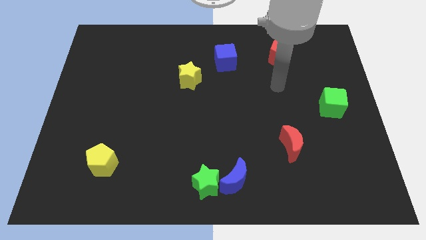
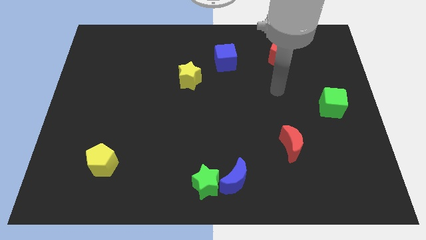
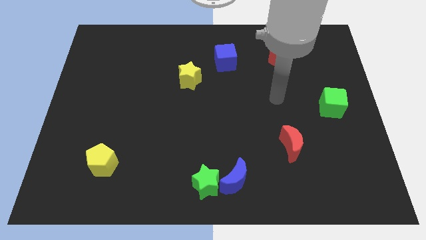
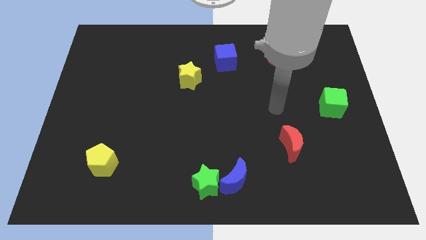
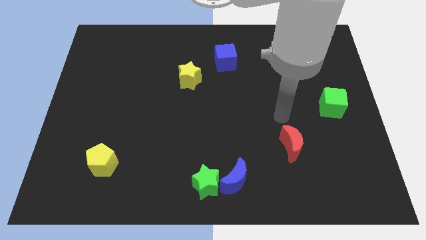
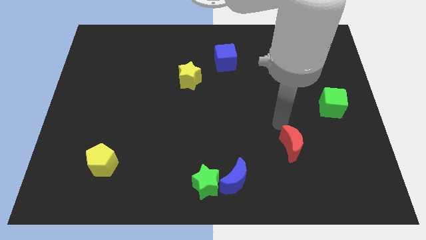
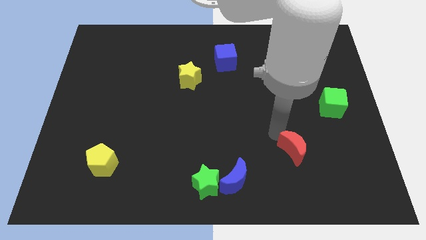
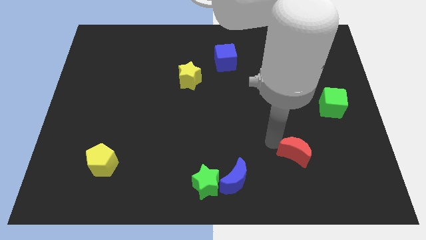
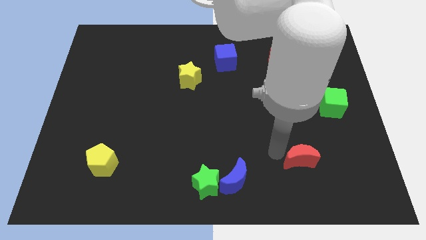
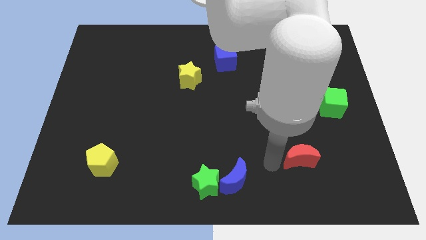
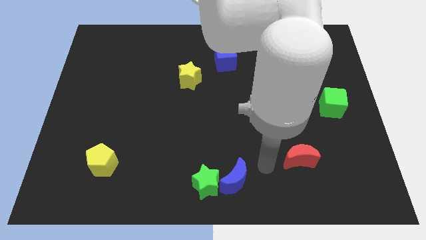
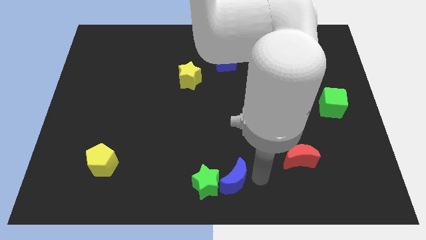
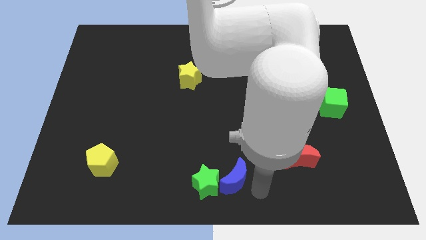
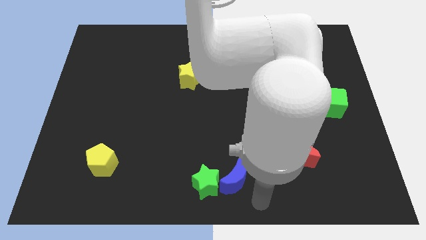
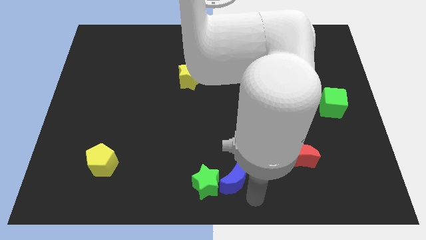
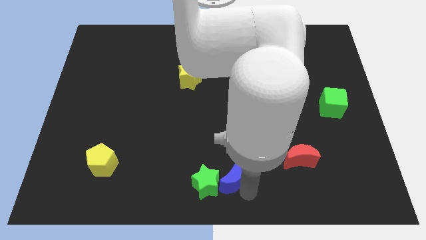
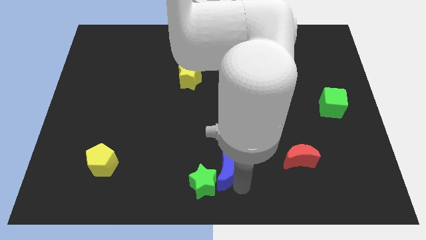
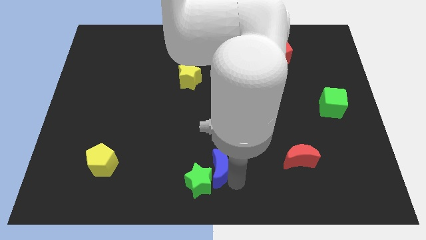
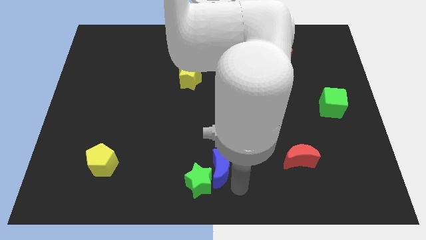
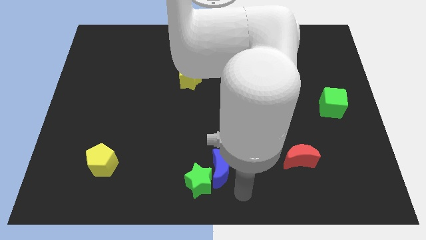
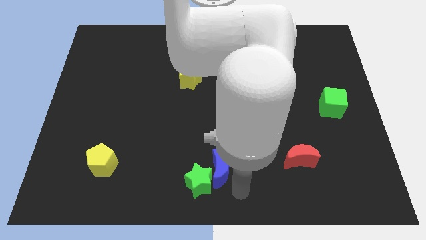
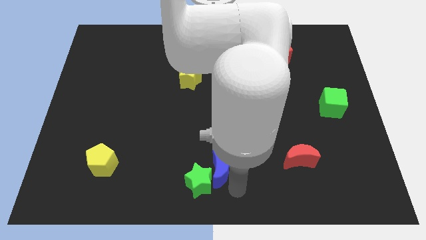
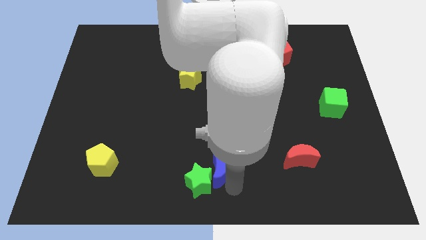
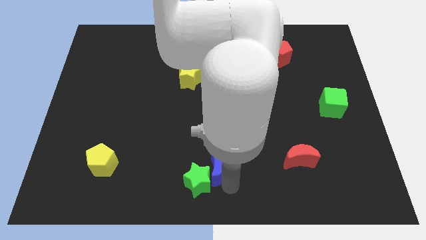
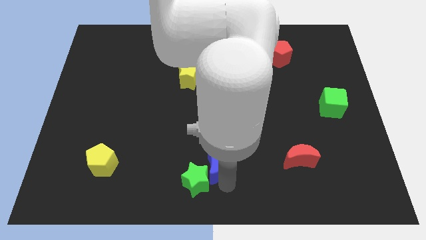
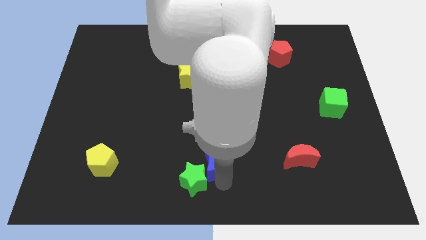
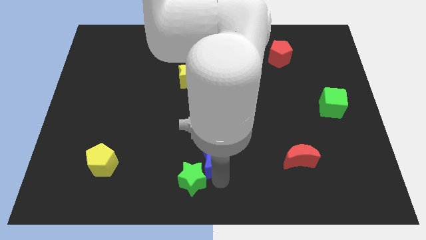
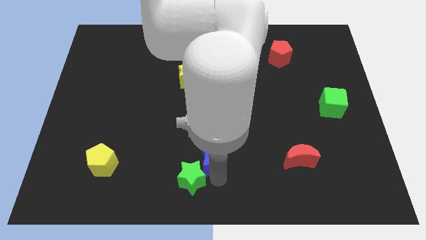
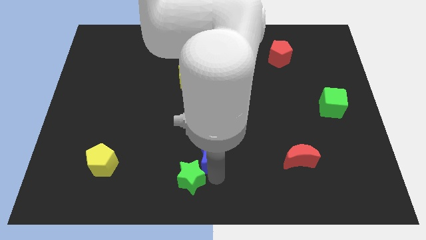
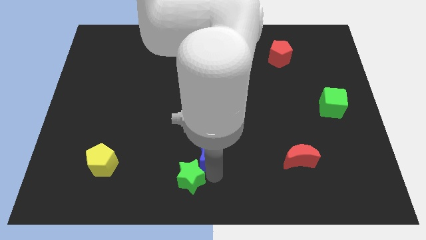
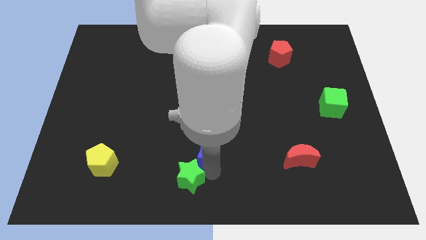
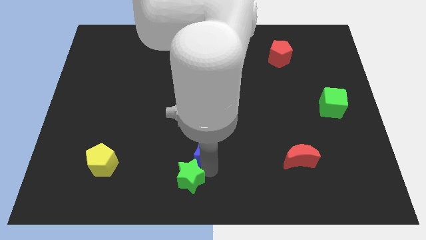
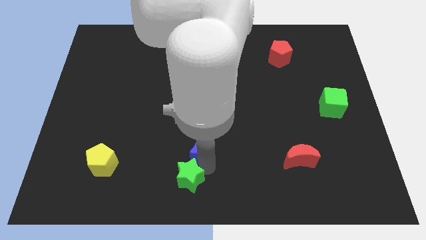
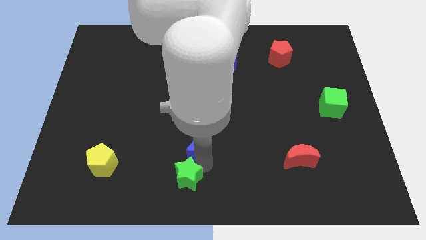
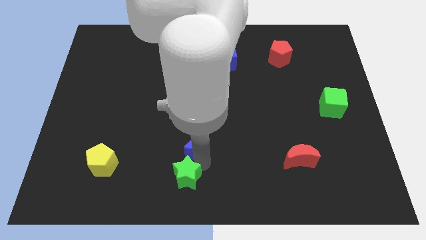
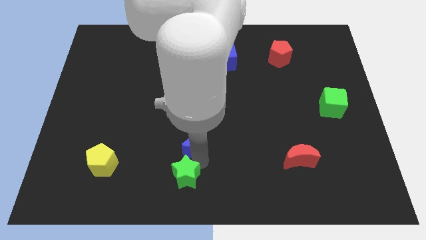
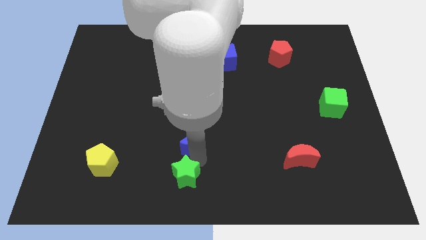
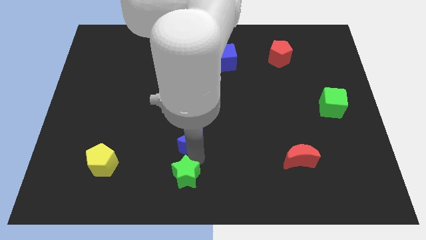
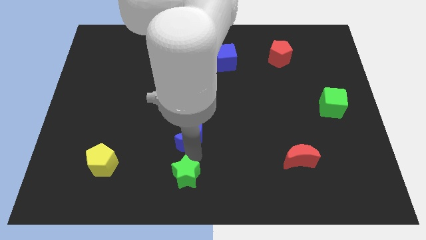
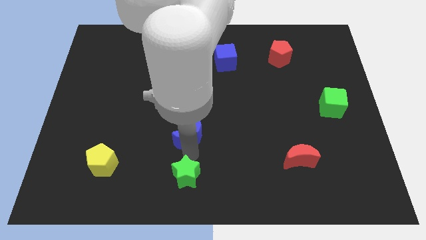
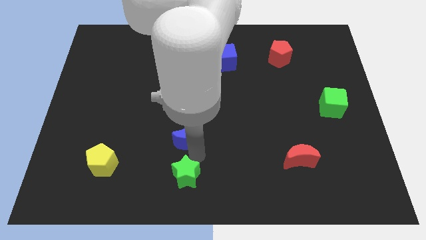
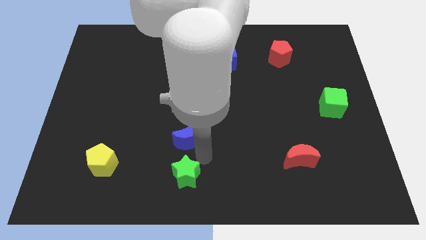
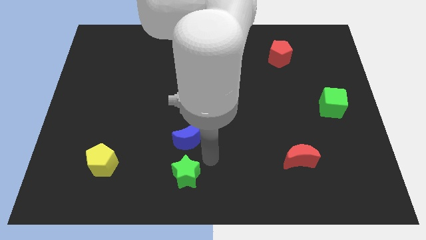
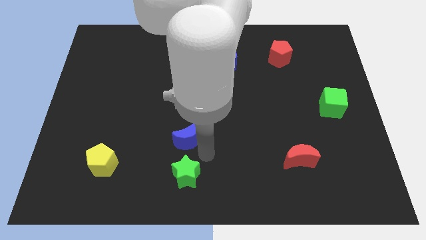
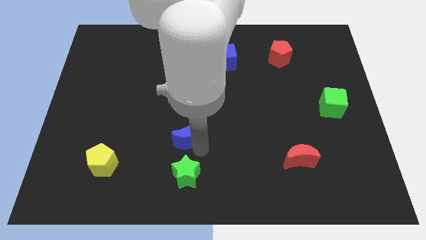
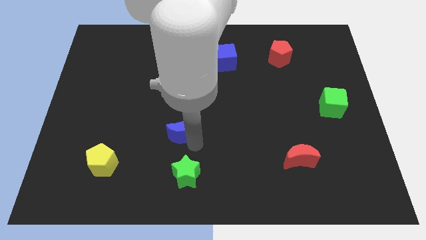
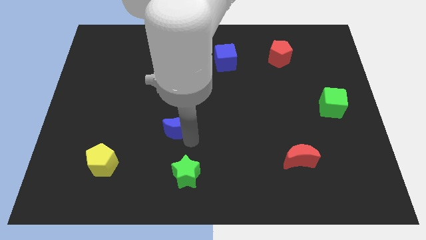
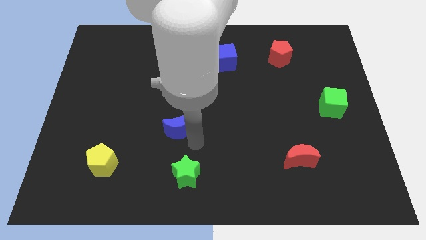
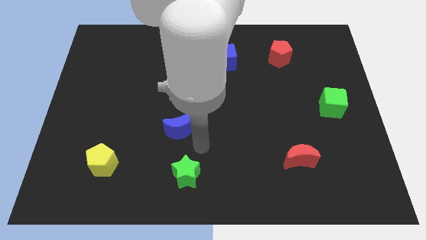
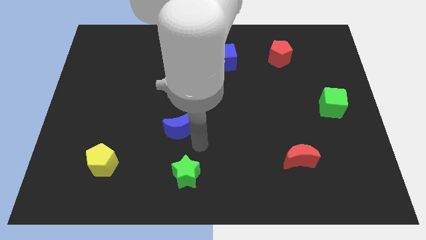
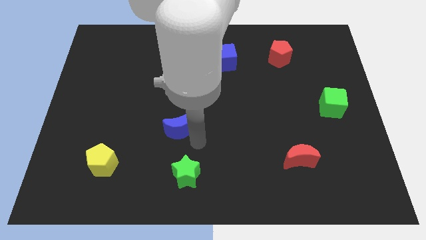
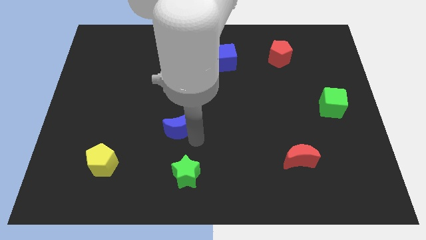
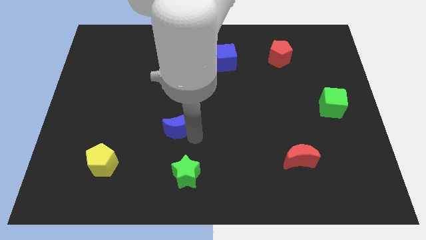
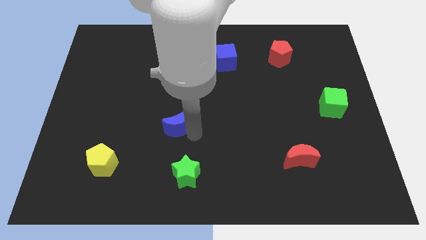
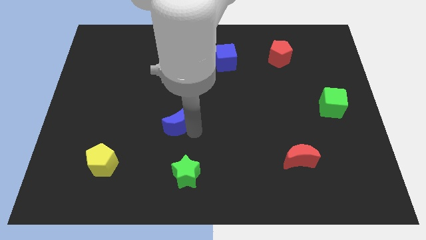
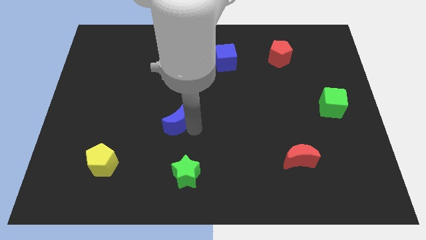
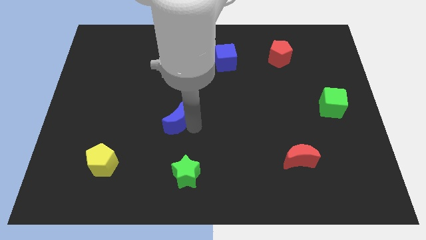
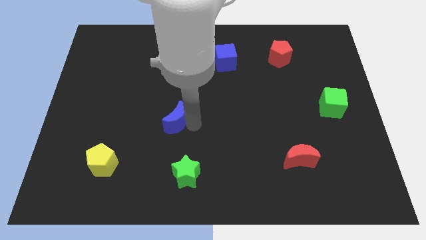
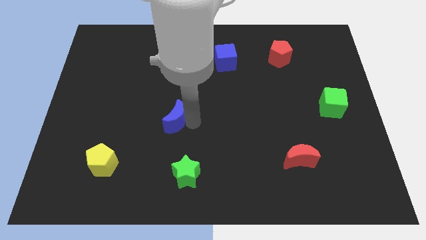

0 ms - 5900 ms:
slide the blue moon upwards and to the left

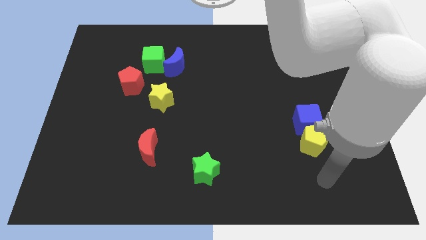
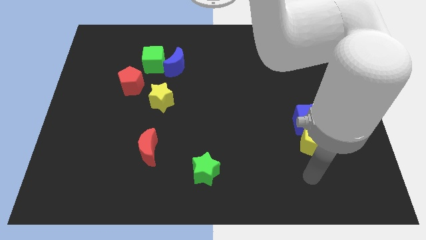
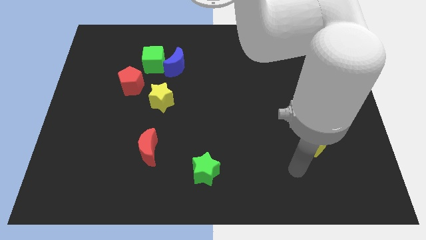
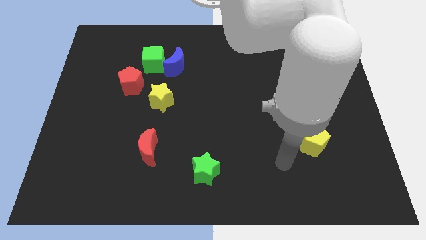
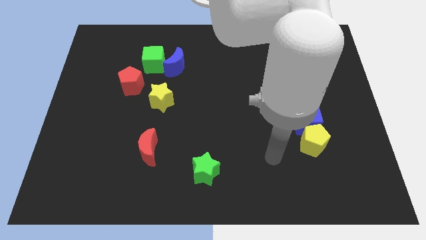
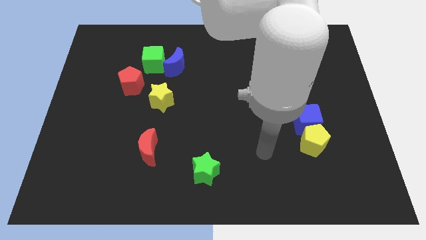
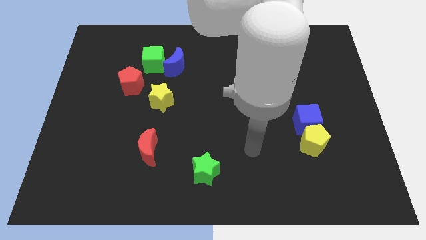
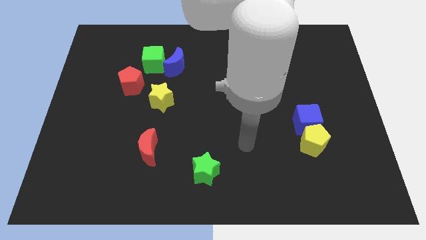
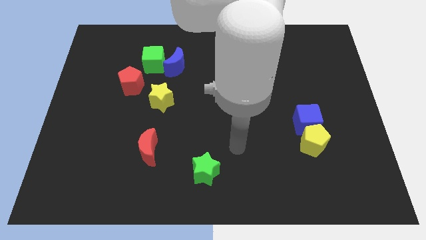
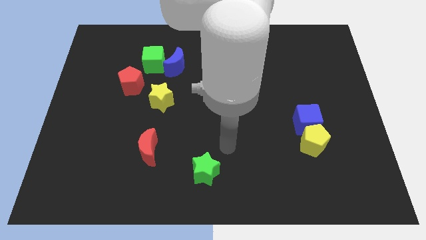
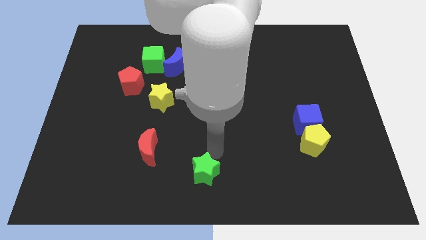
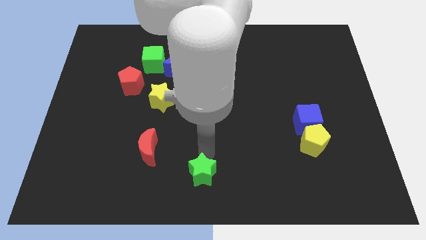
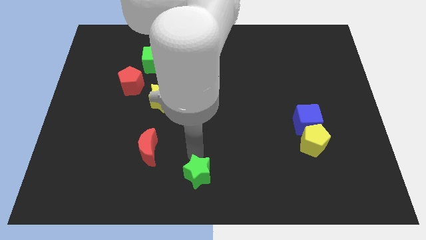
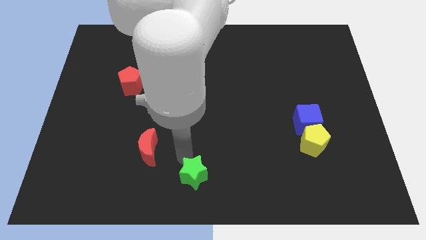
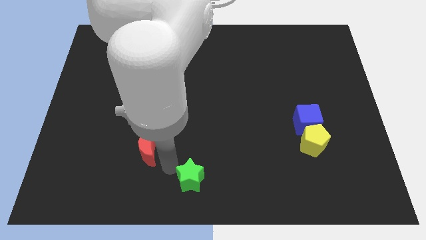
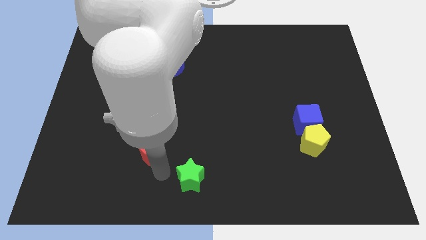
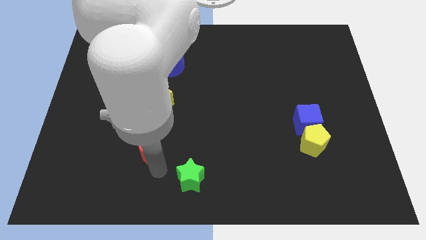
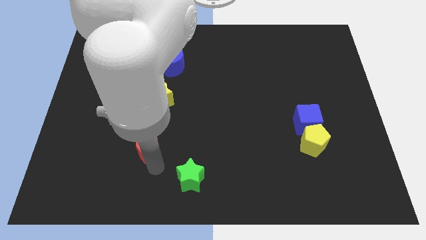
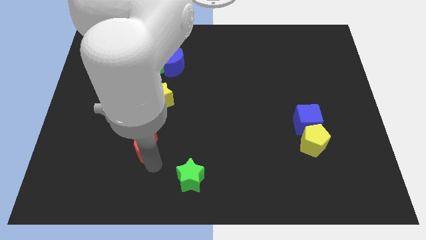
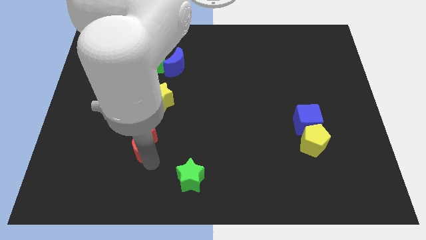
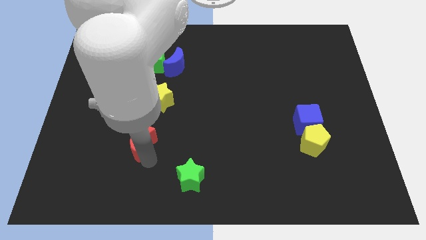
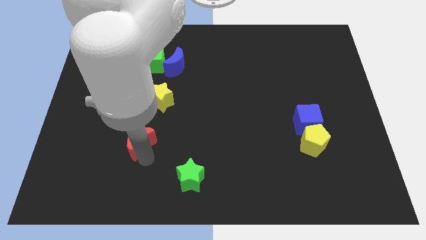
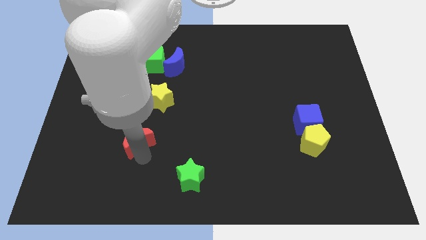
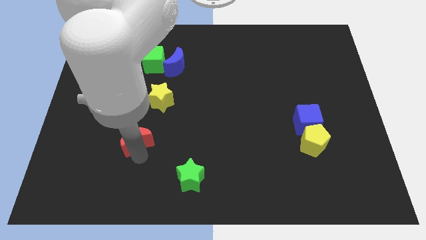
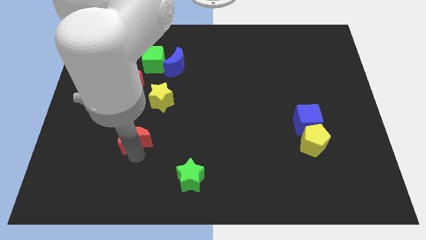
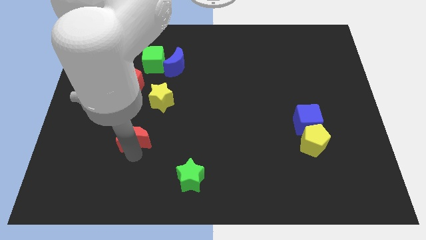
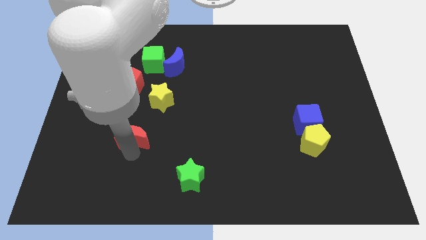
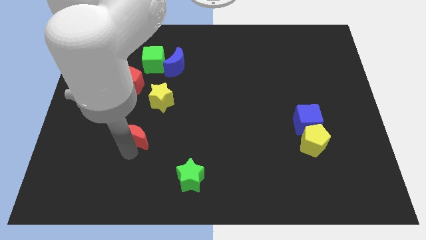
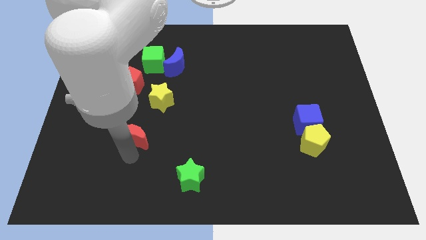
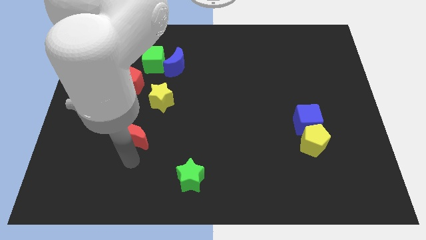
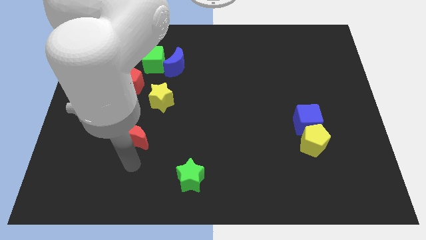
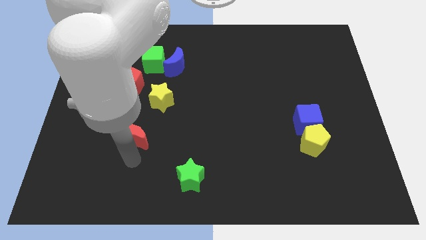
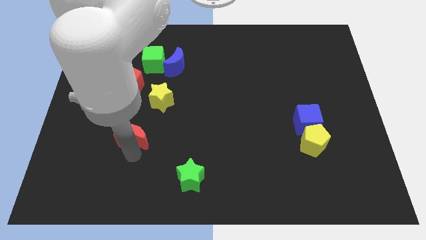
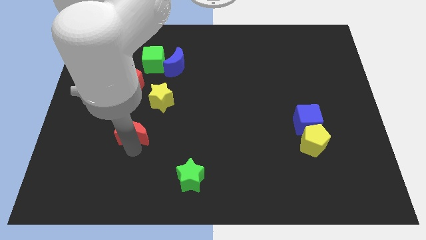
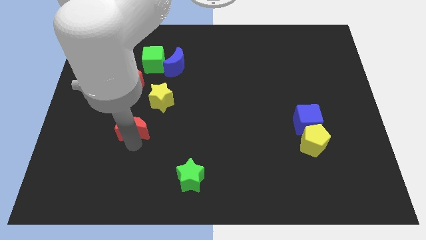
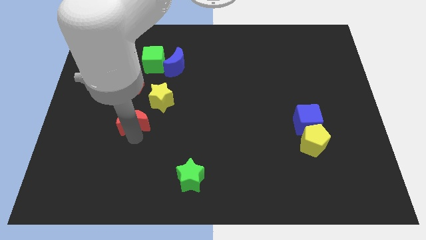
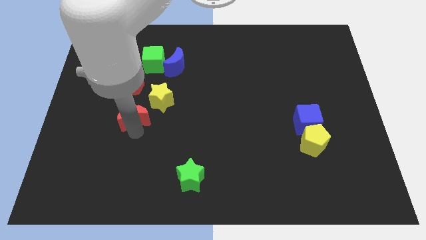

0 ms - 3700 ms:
slightly move the red moon upwards
